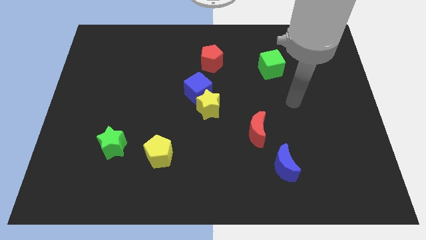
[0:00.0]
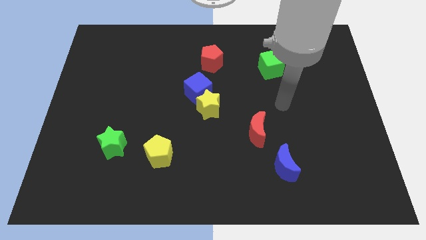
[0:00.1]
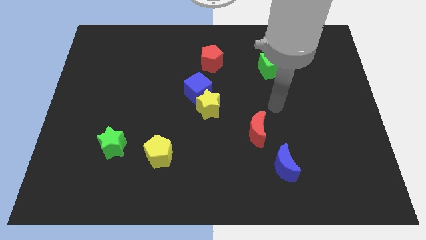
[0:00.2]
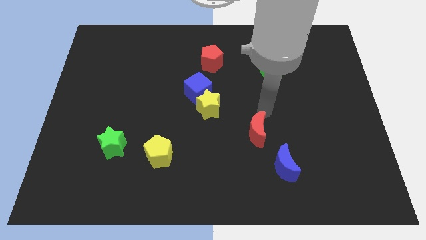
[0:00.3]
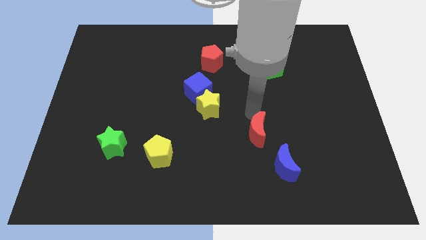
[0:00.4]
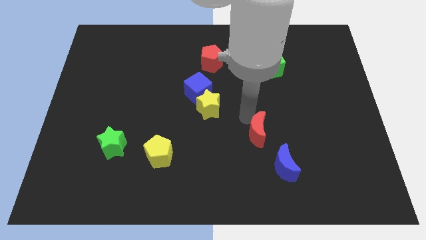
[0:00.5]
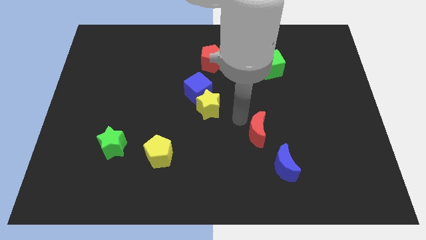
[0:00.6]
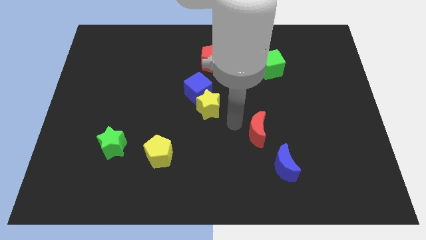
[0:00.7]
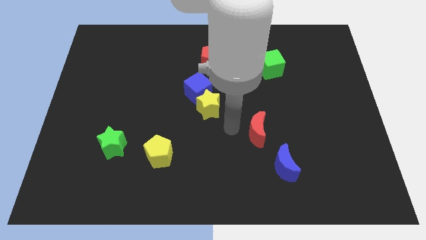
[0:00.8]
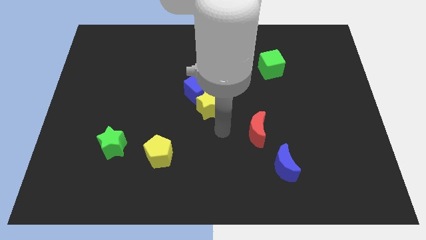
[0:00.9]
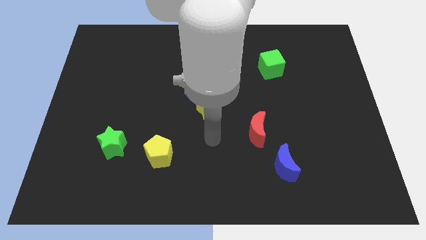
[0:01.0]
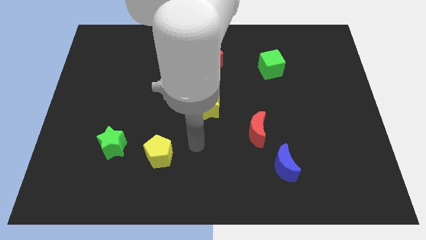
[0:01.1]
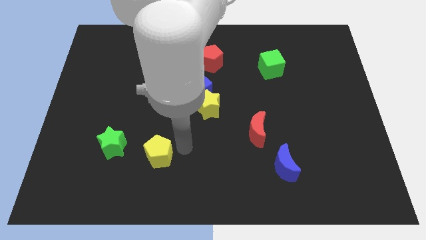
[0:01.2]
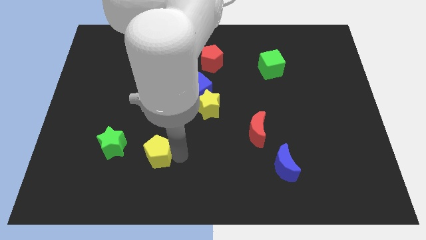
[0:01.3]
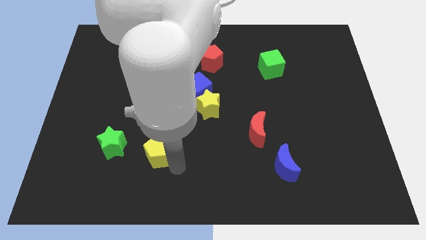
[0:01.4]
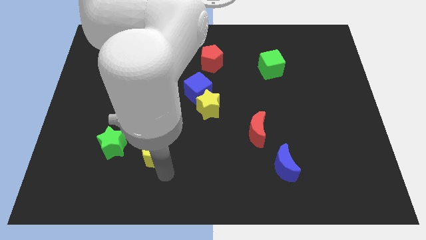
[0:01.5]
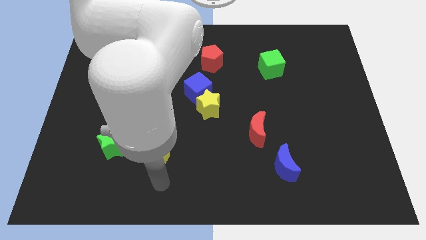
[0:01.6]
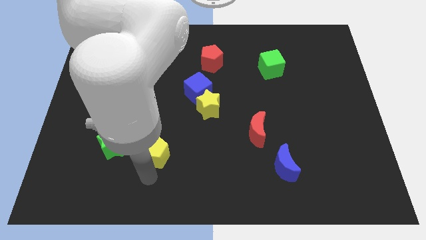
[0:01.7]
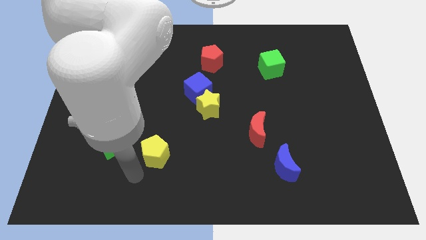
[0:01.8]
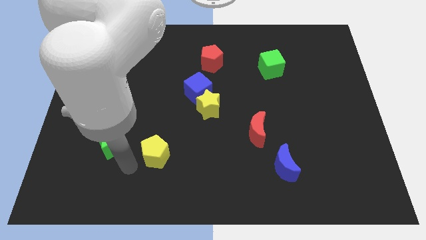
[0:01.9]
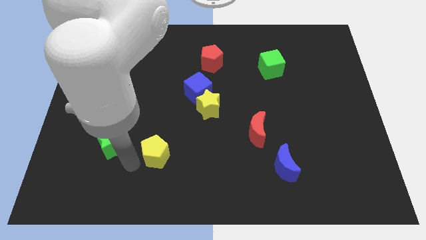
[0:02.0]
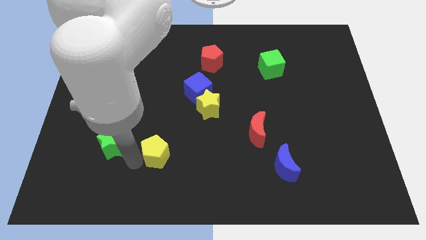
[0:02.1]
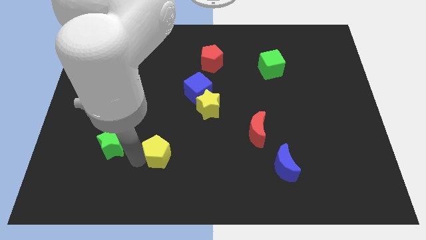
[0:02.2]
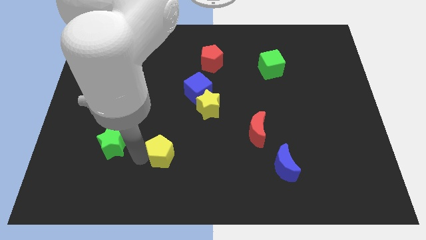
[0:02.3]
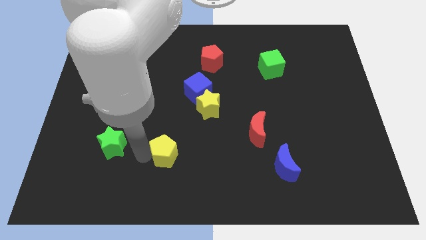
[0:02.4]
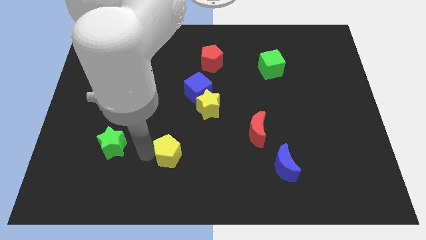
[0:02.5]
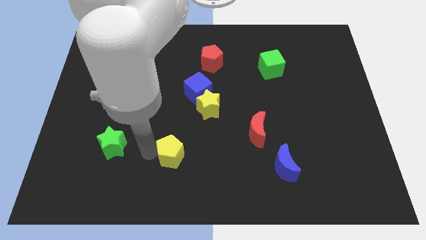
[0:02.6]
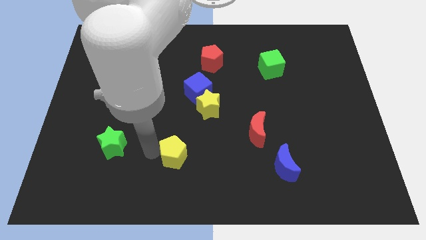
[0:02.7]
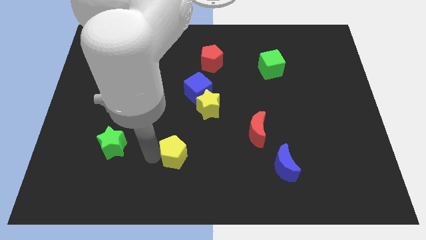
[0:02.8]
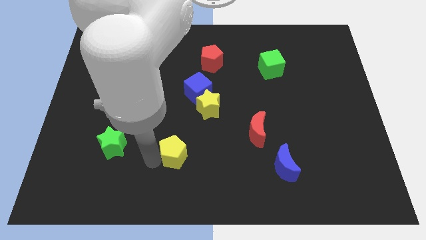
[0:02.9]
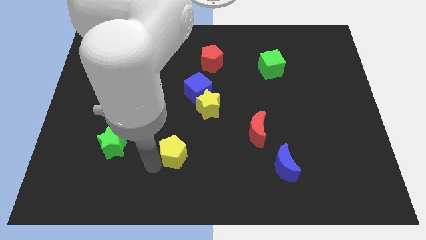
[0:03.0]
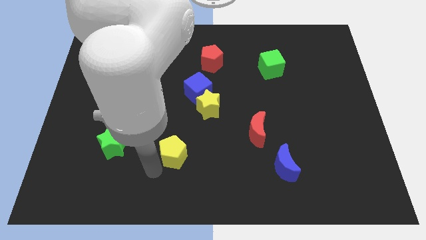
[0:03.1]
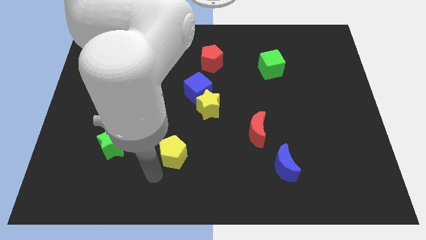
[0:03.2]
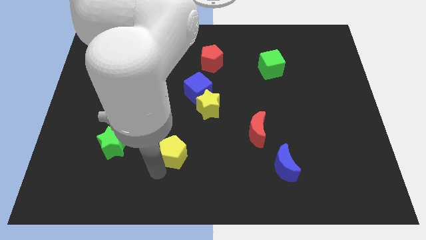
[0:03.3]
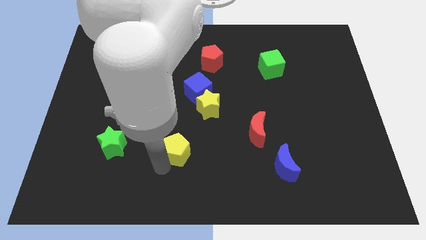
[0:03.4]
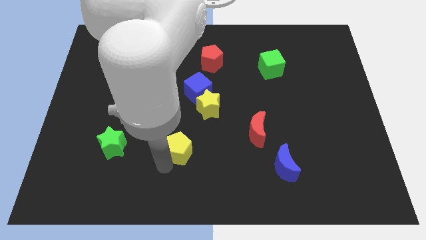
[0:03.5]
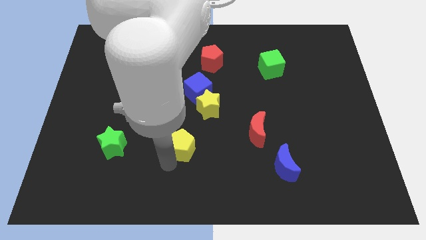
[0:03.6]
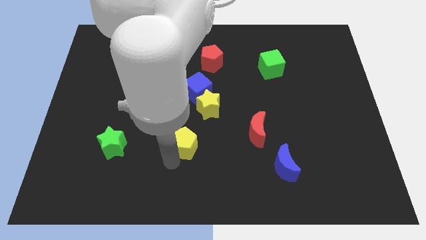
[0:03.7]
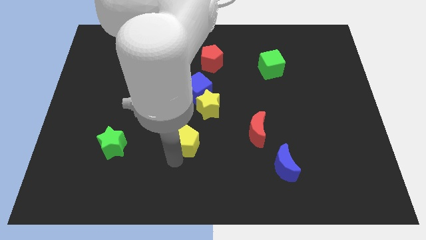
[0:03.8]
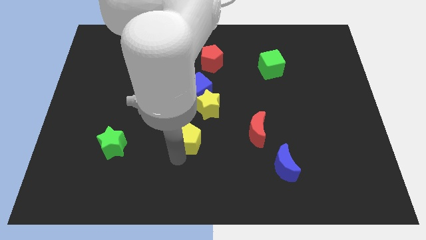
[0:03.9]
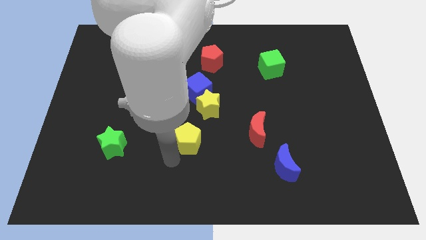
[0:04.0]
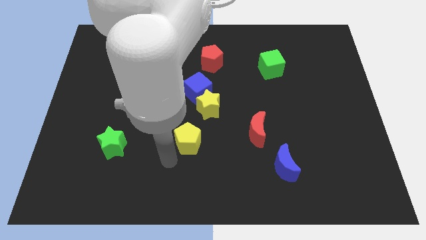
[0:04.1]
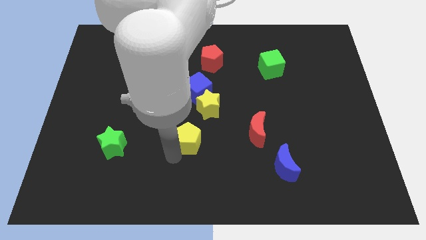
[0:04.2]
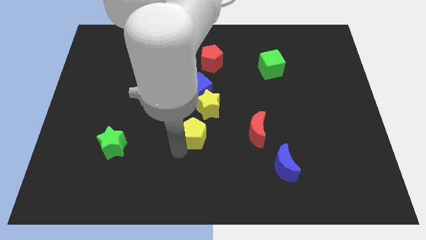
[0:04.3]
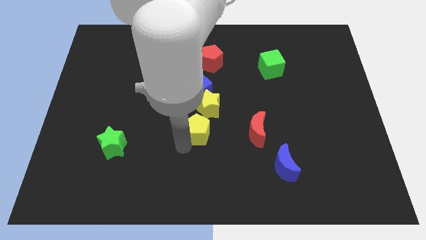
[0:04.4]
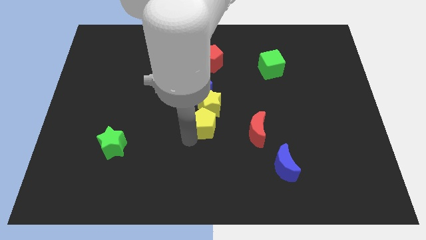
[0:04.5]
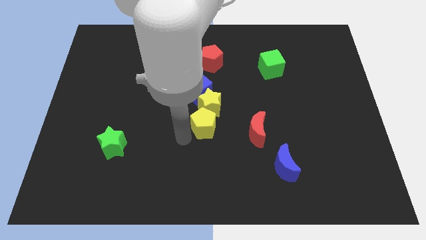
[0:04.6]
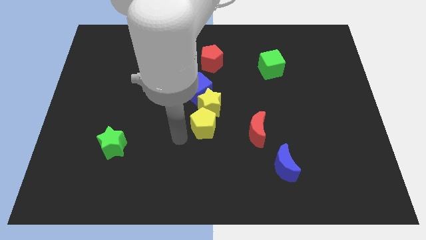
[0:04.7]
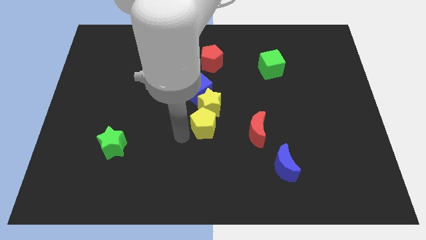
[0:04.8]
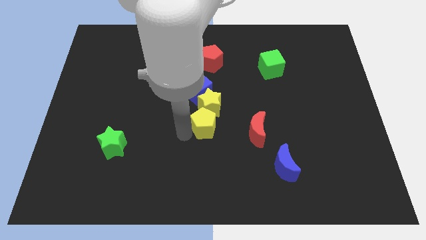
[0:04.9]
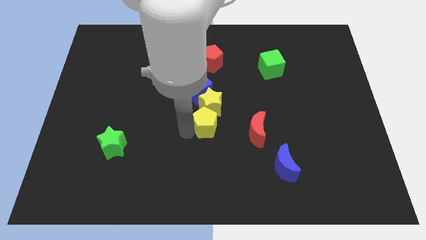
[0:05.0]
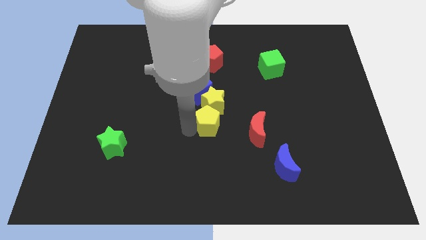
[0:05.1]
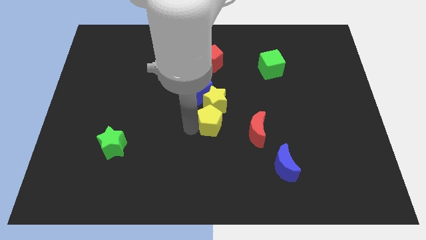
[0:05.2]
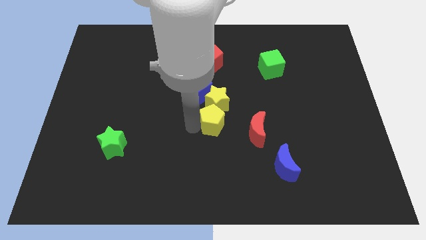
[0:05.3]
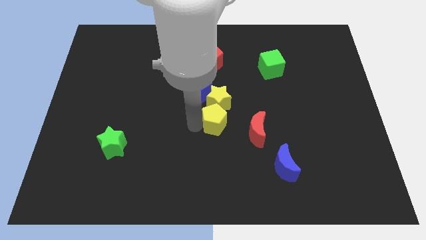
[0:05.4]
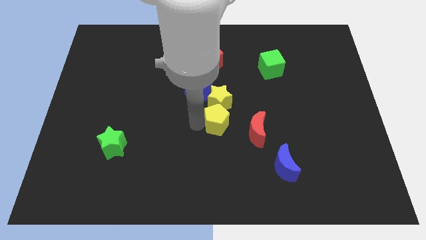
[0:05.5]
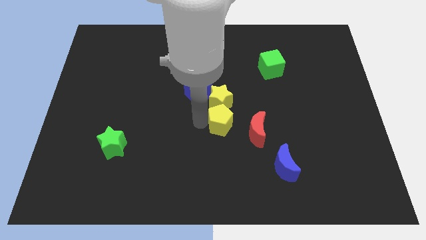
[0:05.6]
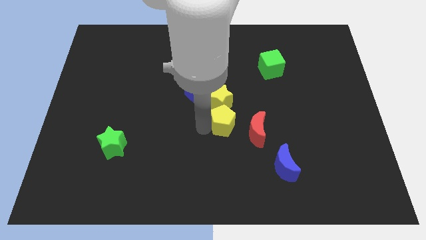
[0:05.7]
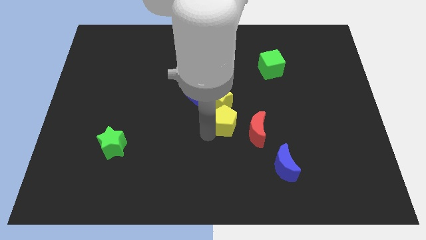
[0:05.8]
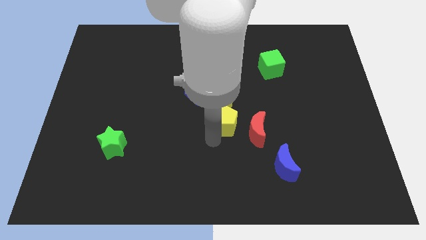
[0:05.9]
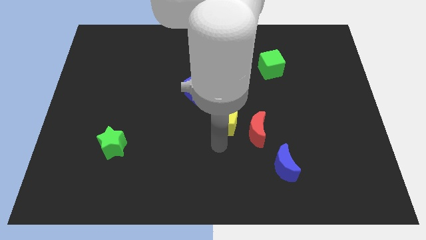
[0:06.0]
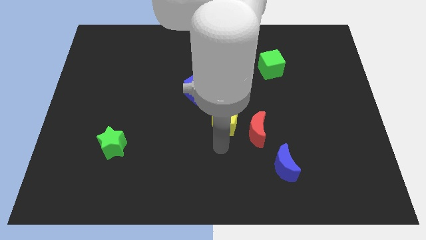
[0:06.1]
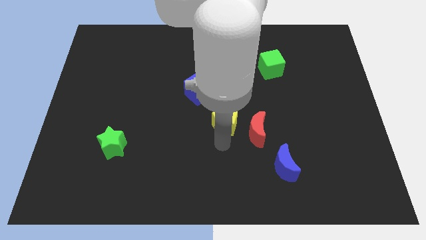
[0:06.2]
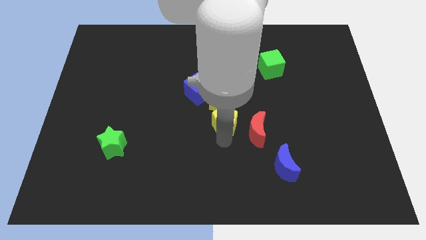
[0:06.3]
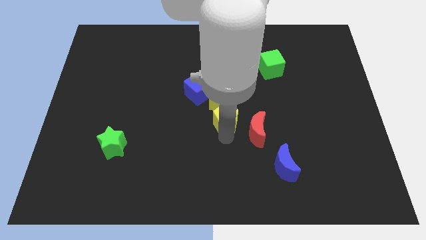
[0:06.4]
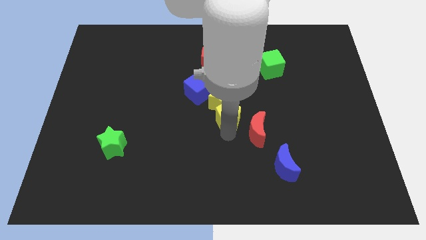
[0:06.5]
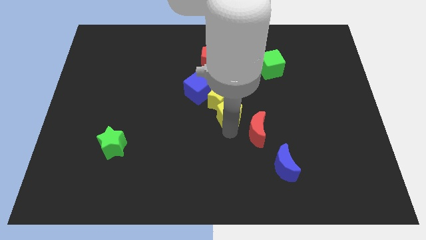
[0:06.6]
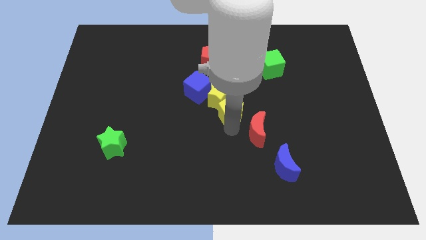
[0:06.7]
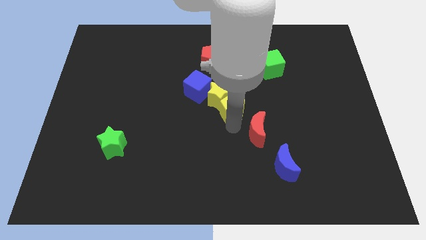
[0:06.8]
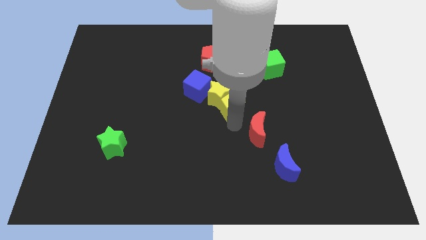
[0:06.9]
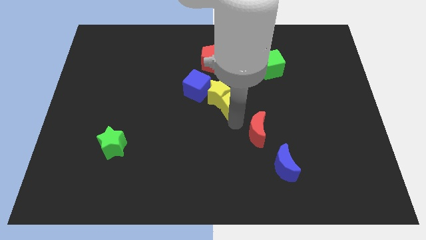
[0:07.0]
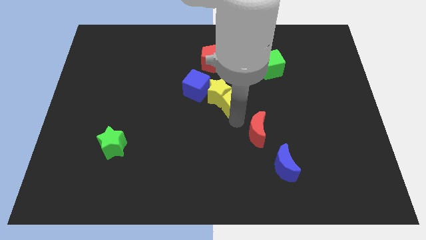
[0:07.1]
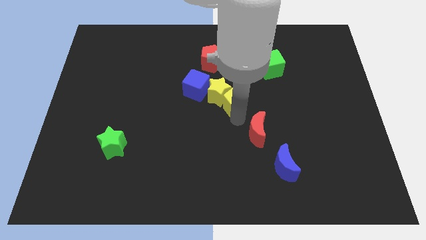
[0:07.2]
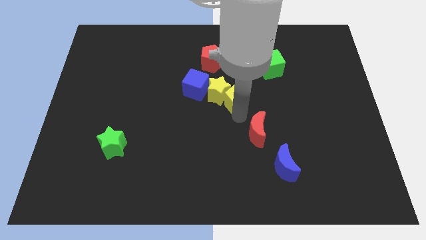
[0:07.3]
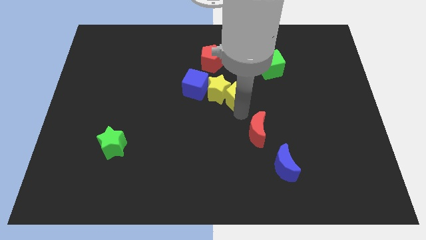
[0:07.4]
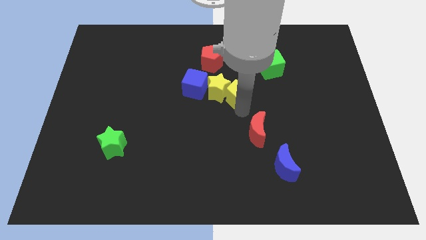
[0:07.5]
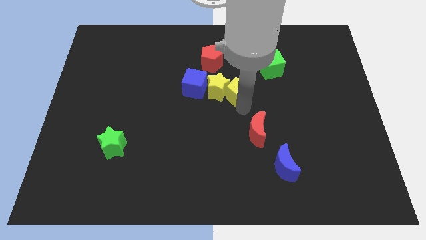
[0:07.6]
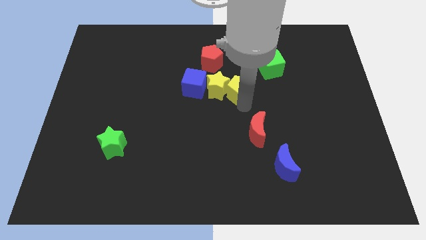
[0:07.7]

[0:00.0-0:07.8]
slide the yellow pentagon diagonally down and to the right of the red pentagon
